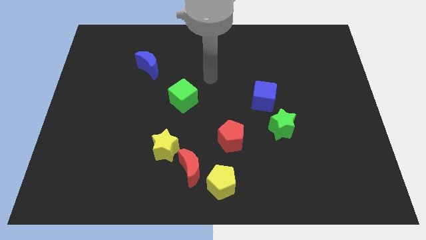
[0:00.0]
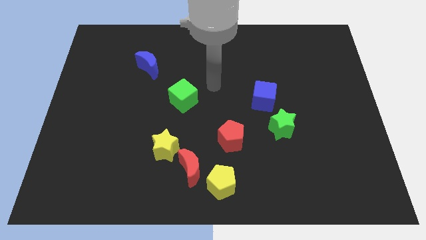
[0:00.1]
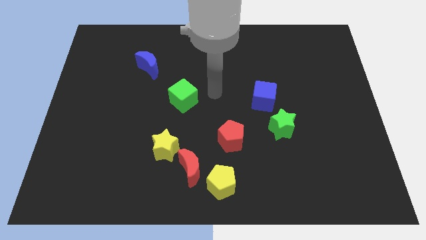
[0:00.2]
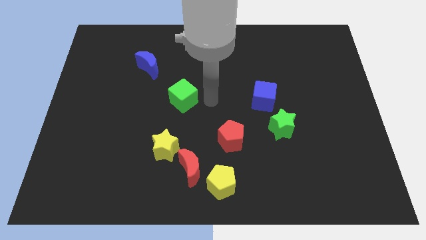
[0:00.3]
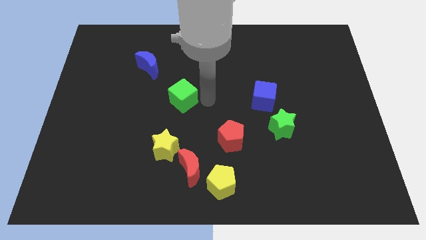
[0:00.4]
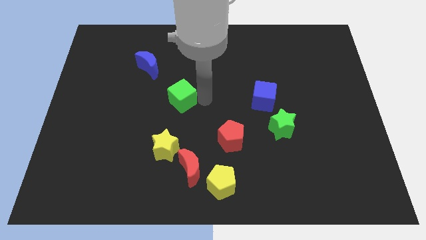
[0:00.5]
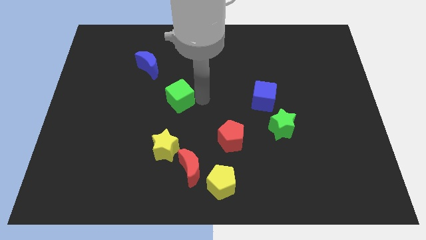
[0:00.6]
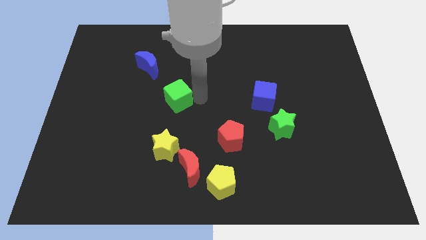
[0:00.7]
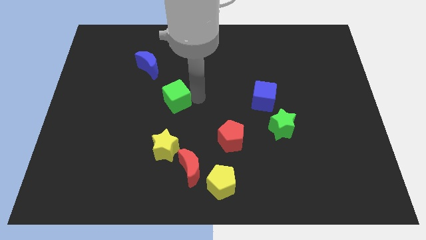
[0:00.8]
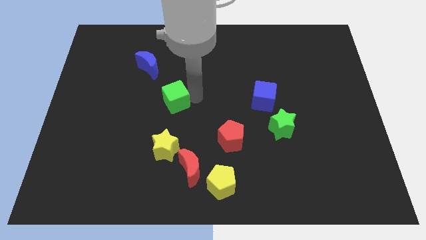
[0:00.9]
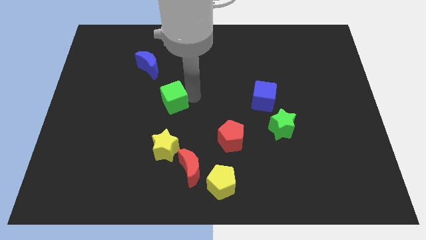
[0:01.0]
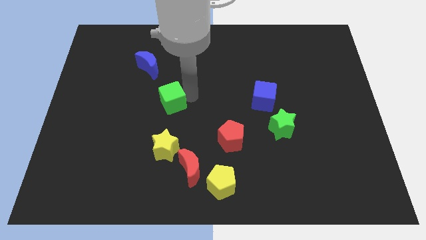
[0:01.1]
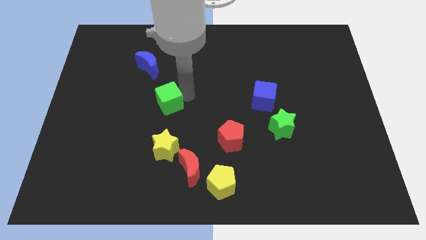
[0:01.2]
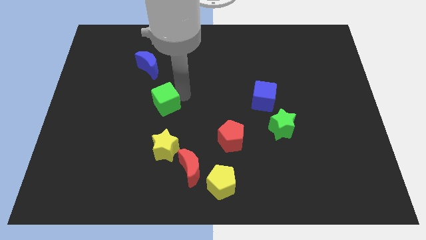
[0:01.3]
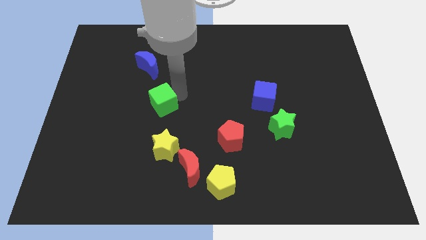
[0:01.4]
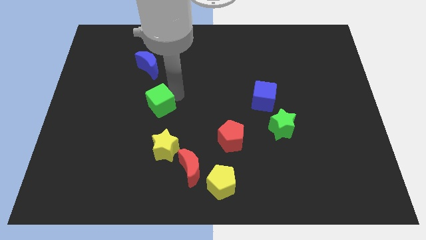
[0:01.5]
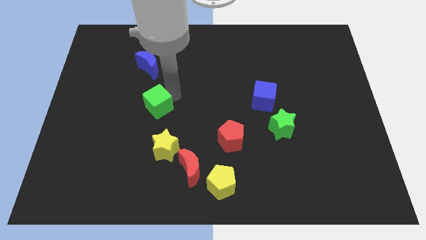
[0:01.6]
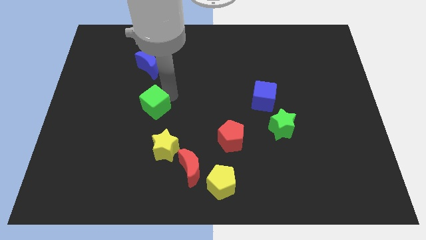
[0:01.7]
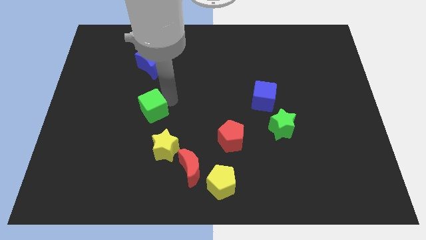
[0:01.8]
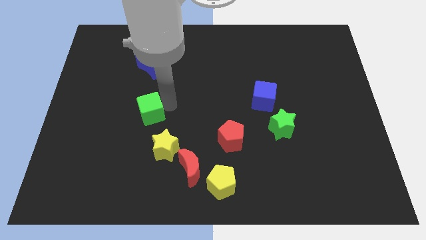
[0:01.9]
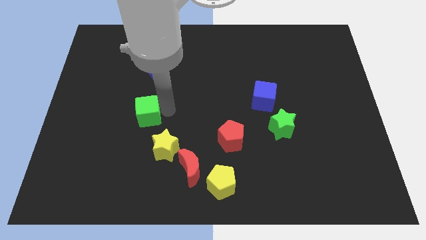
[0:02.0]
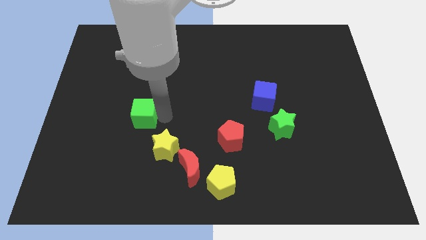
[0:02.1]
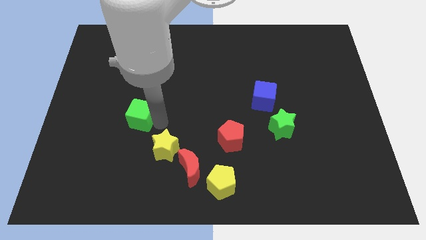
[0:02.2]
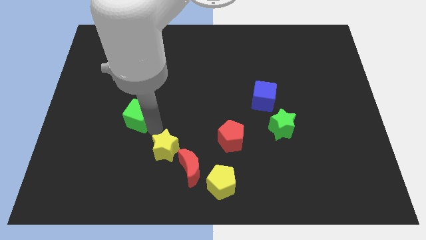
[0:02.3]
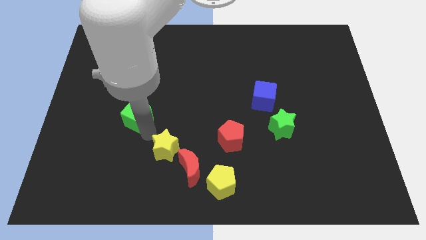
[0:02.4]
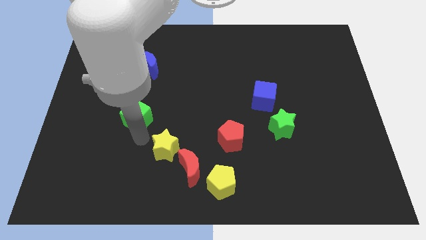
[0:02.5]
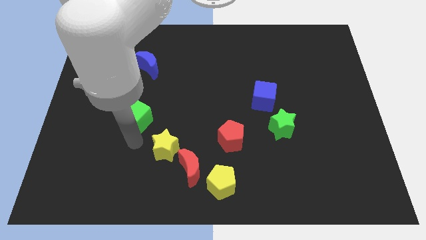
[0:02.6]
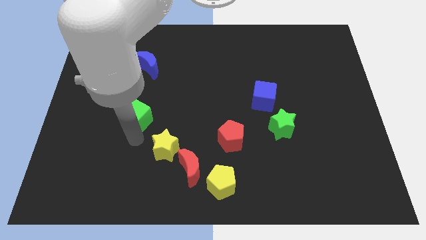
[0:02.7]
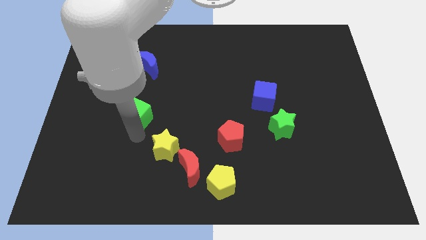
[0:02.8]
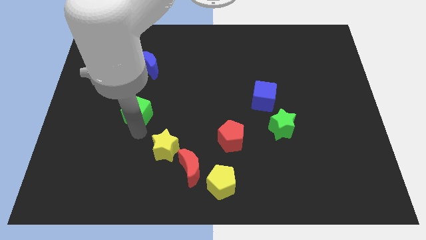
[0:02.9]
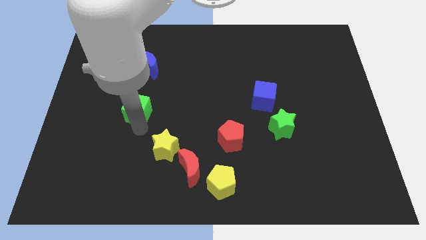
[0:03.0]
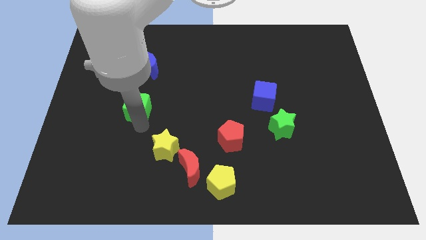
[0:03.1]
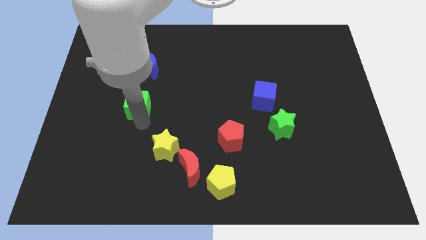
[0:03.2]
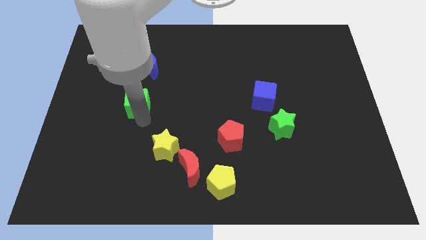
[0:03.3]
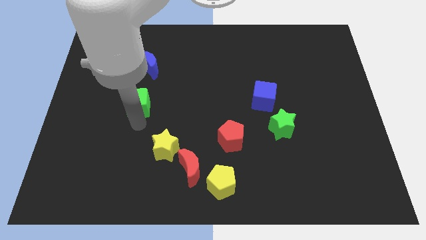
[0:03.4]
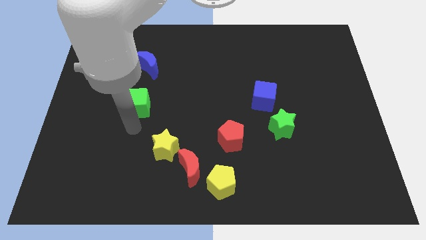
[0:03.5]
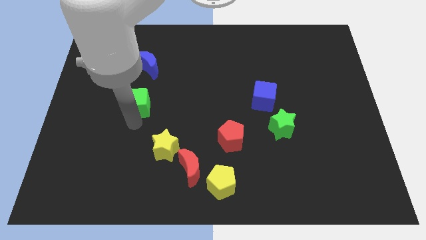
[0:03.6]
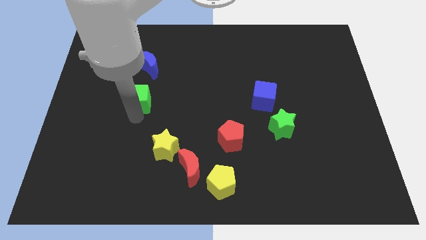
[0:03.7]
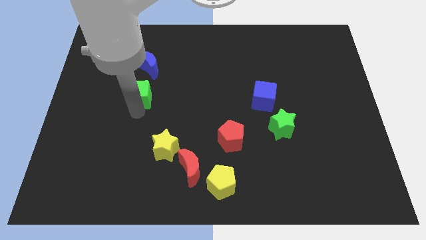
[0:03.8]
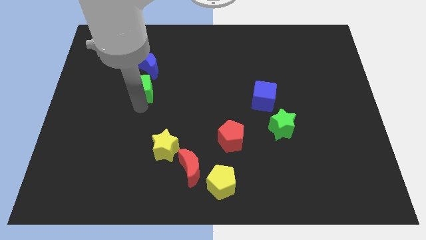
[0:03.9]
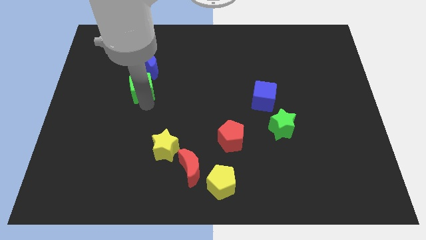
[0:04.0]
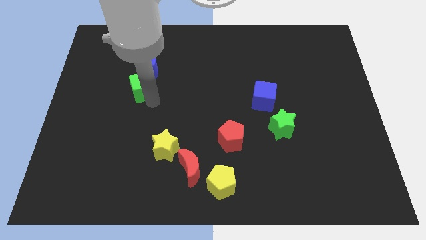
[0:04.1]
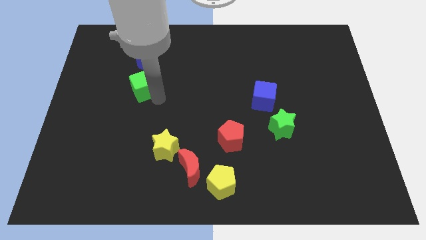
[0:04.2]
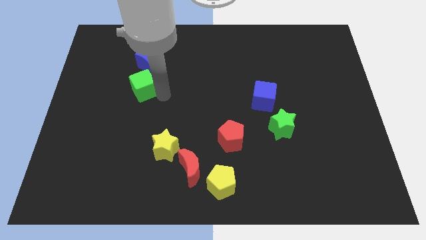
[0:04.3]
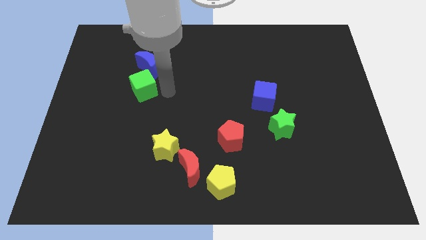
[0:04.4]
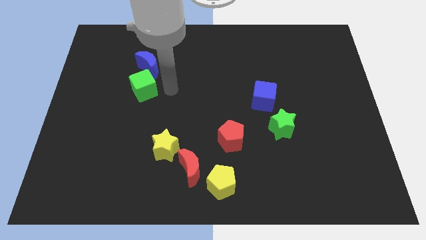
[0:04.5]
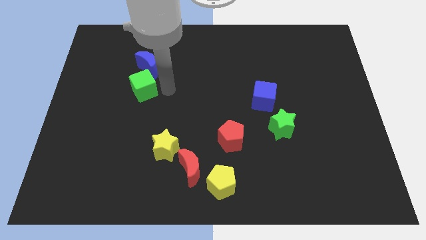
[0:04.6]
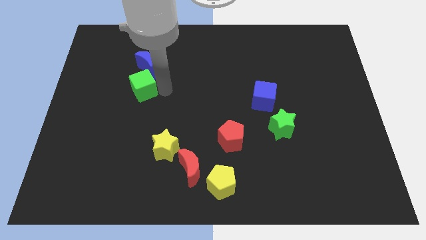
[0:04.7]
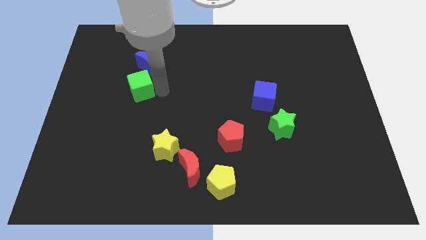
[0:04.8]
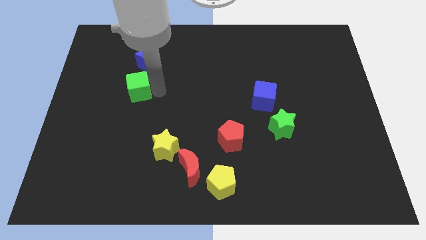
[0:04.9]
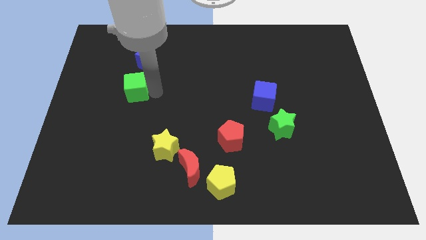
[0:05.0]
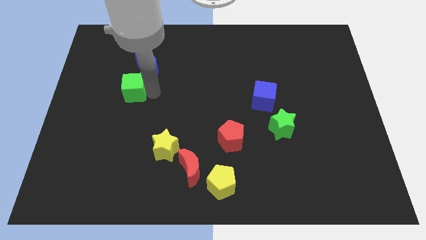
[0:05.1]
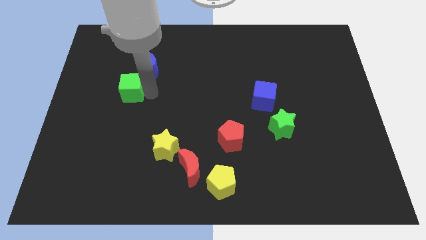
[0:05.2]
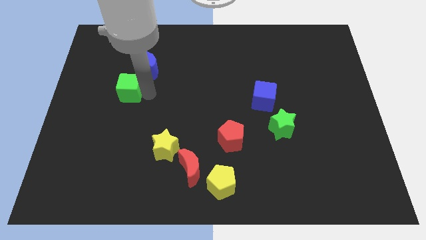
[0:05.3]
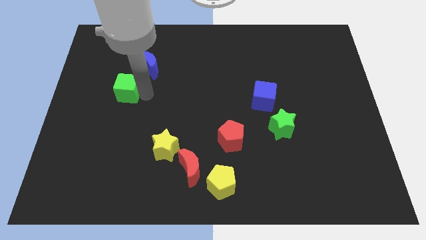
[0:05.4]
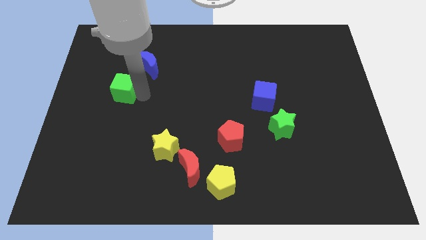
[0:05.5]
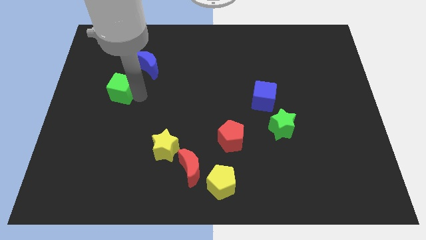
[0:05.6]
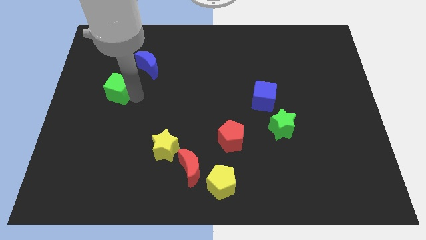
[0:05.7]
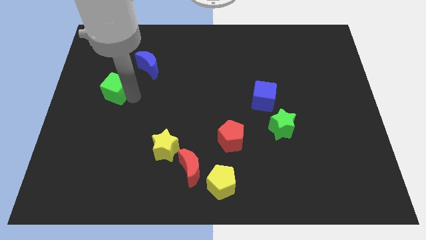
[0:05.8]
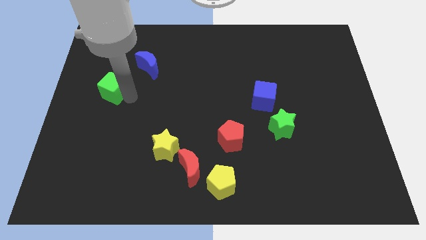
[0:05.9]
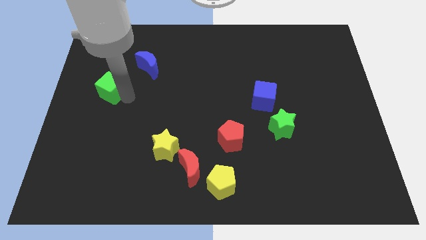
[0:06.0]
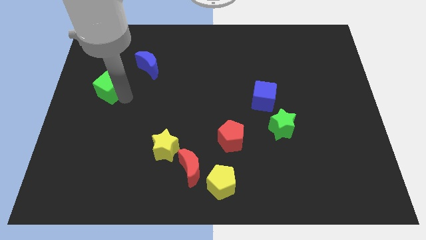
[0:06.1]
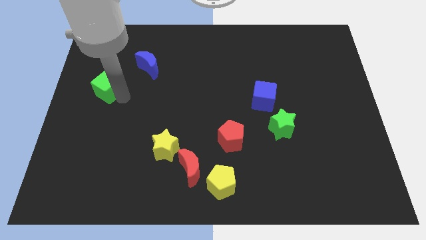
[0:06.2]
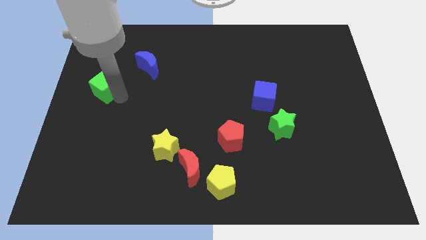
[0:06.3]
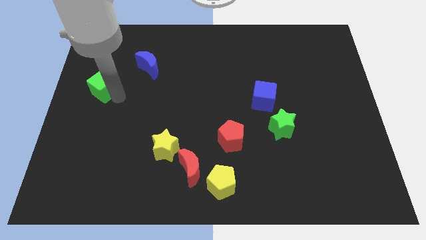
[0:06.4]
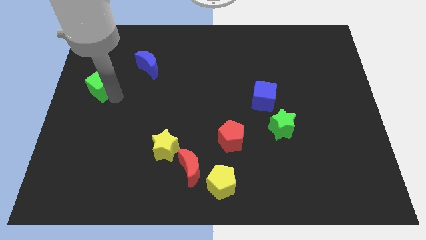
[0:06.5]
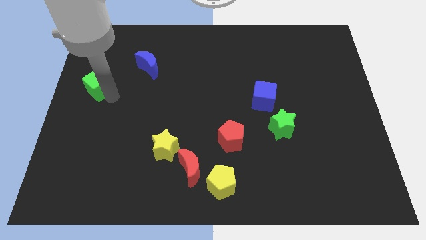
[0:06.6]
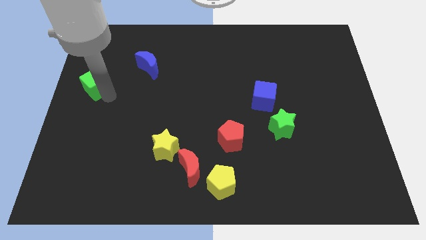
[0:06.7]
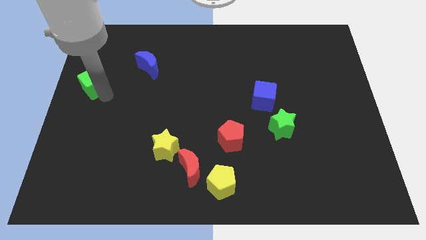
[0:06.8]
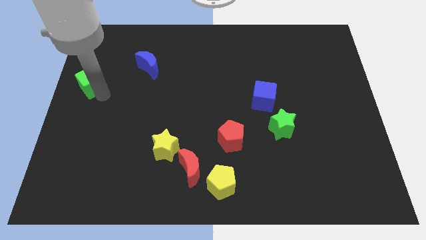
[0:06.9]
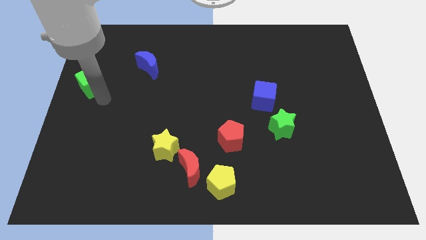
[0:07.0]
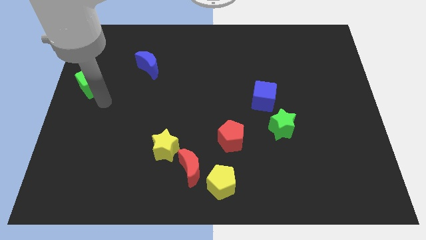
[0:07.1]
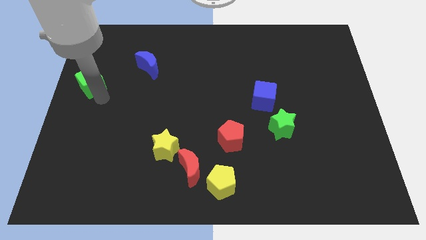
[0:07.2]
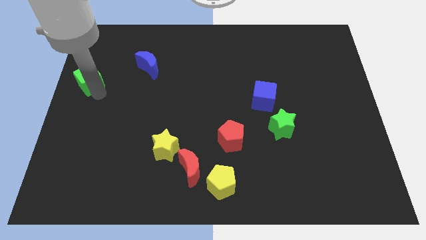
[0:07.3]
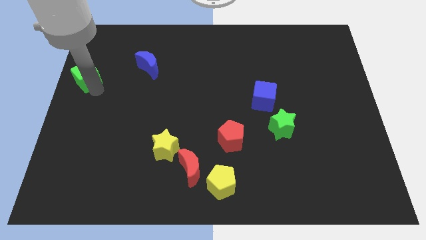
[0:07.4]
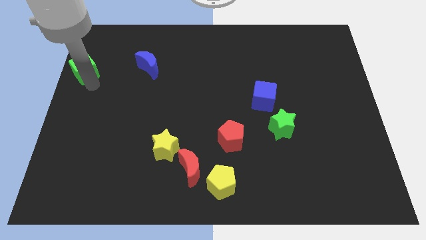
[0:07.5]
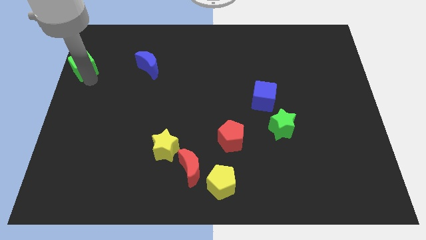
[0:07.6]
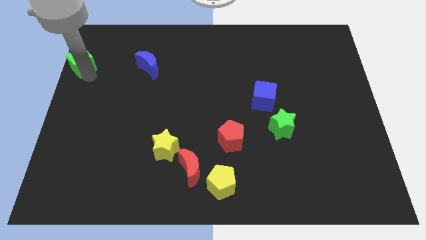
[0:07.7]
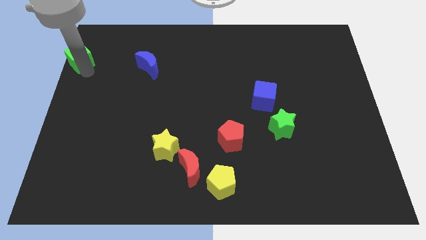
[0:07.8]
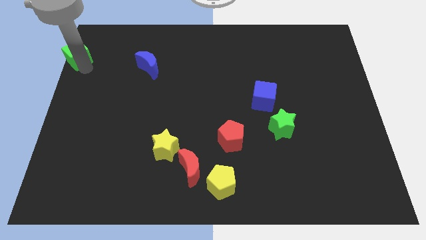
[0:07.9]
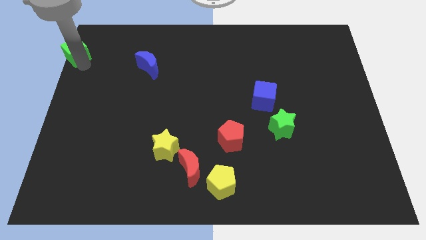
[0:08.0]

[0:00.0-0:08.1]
slide the green cube to the top left of the board
